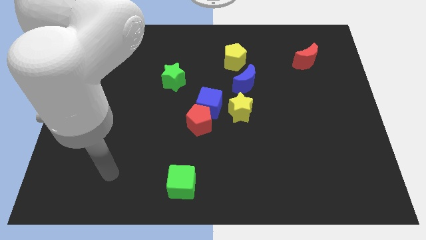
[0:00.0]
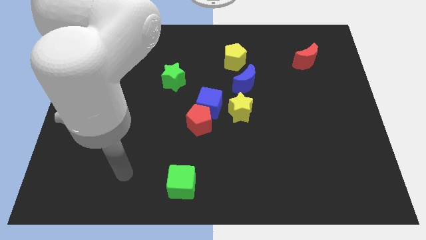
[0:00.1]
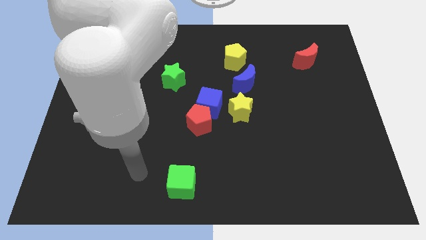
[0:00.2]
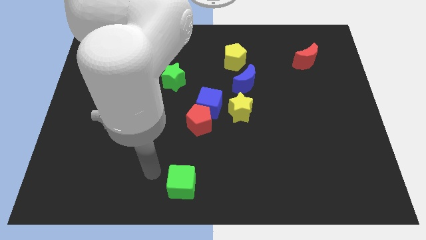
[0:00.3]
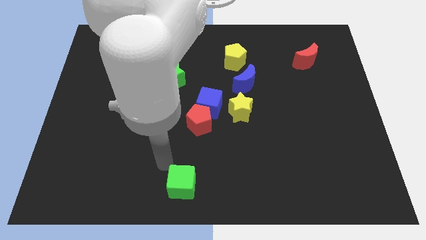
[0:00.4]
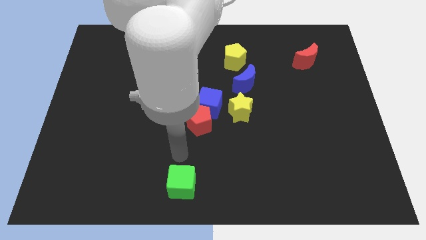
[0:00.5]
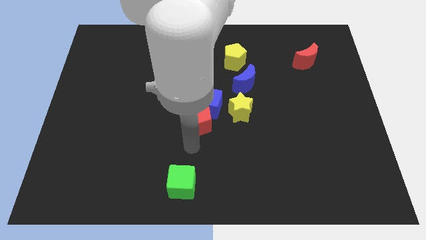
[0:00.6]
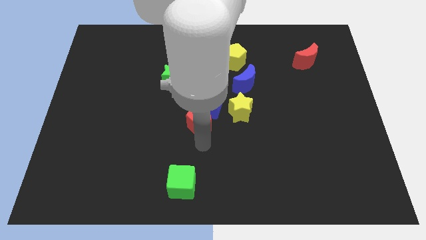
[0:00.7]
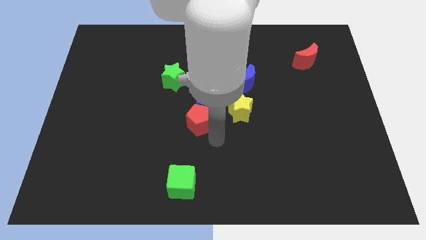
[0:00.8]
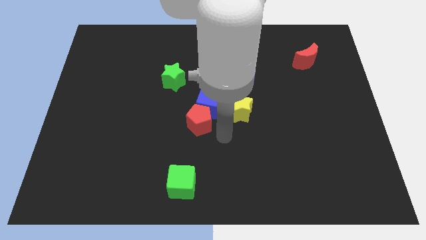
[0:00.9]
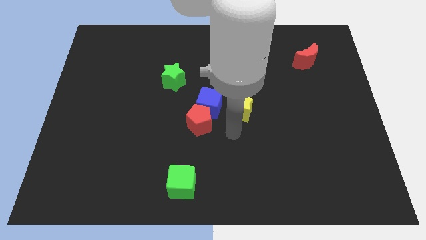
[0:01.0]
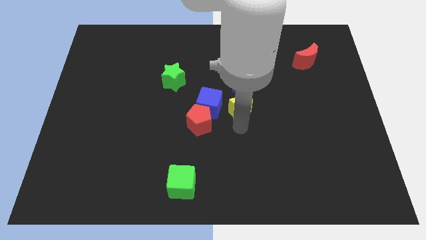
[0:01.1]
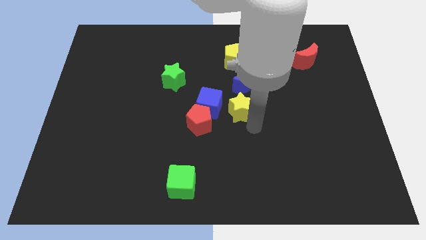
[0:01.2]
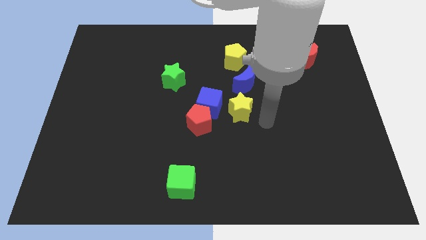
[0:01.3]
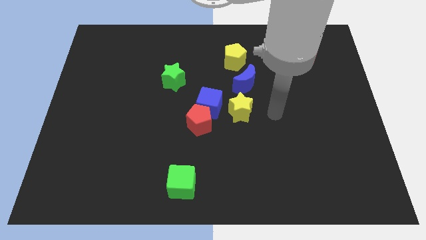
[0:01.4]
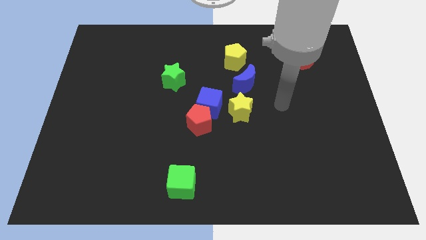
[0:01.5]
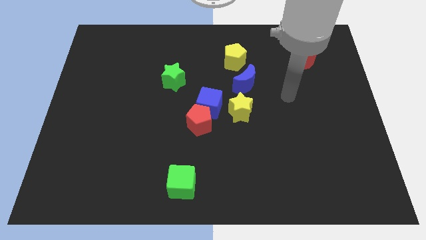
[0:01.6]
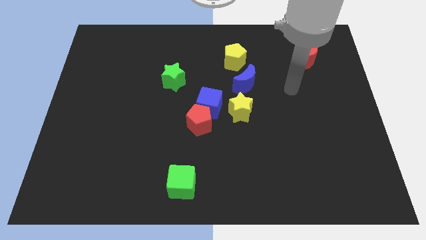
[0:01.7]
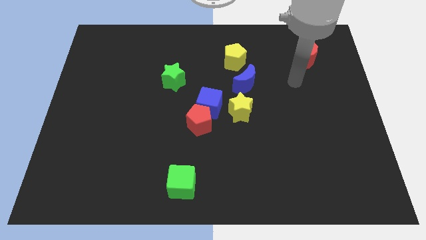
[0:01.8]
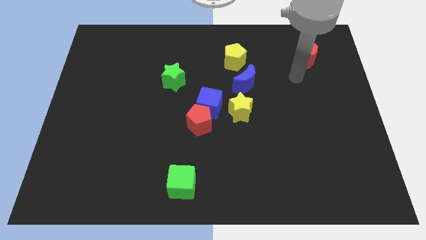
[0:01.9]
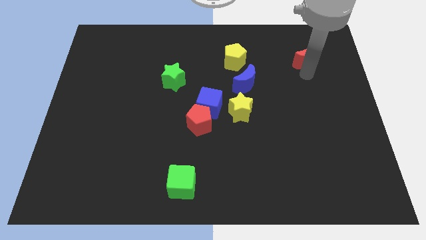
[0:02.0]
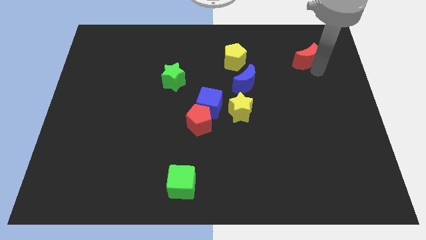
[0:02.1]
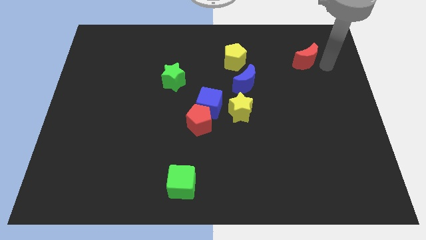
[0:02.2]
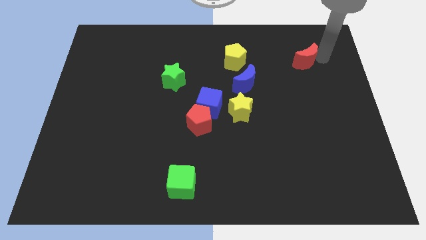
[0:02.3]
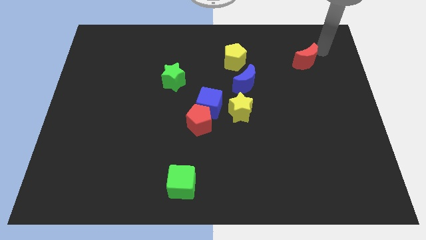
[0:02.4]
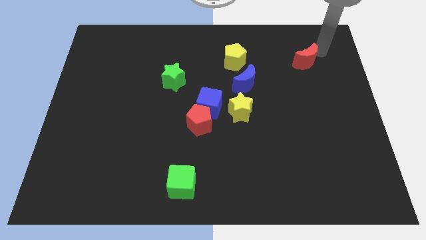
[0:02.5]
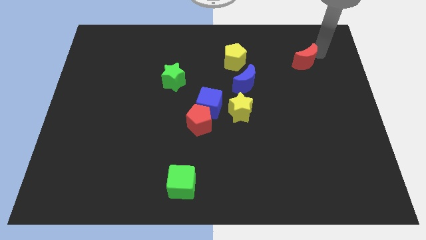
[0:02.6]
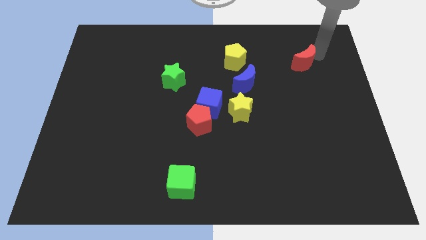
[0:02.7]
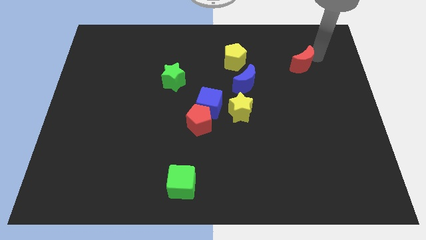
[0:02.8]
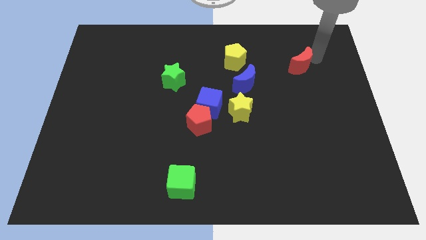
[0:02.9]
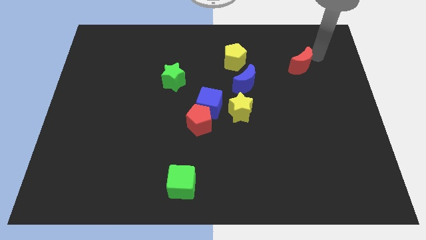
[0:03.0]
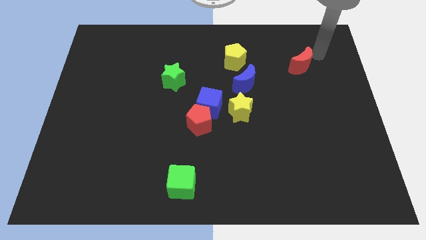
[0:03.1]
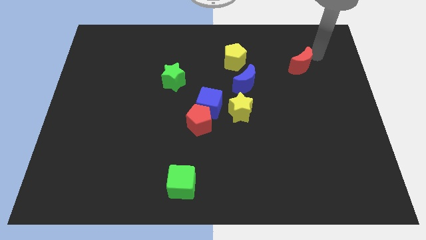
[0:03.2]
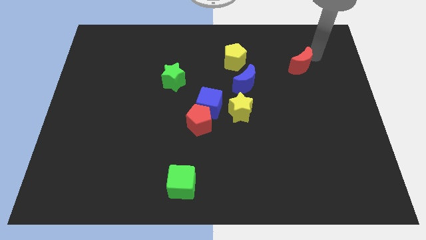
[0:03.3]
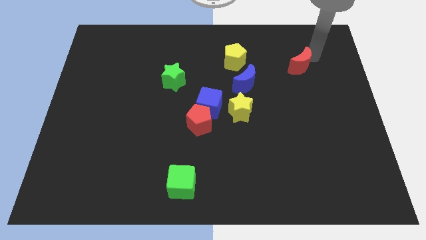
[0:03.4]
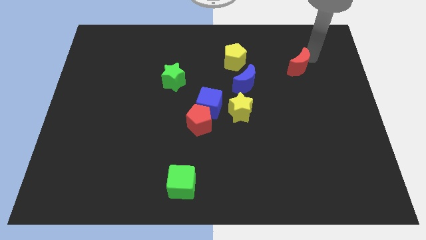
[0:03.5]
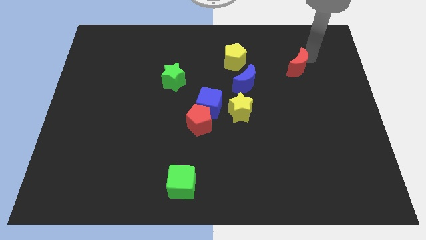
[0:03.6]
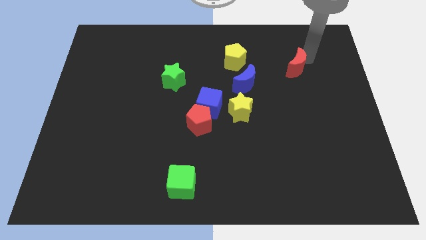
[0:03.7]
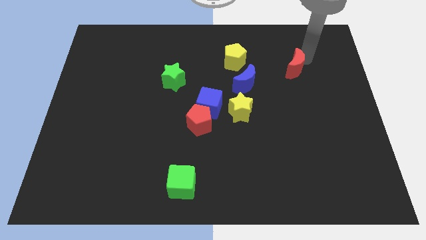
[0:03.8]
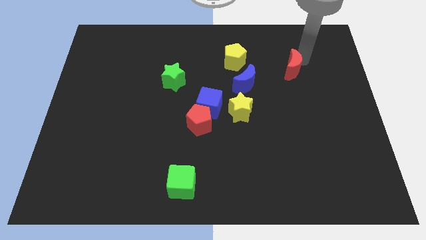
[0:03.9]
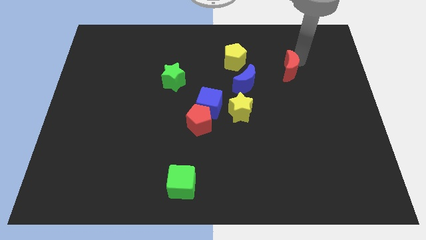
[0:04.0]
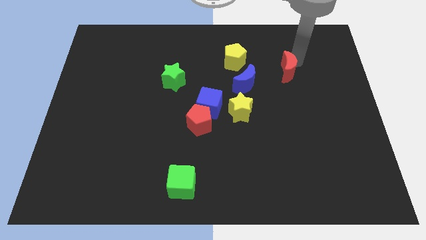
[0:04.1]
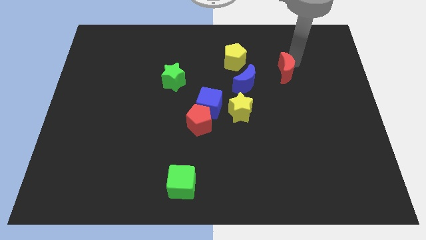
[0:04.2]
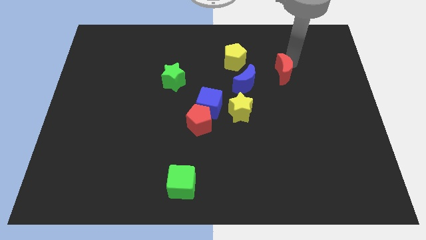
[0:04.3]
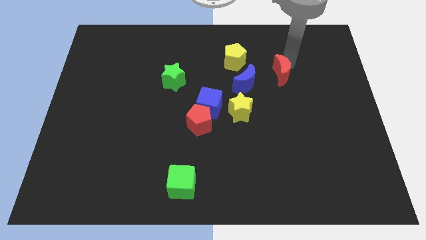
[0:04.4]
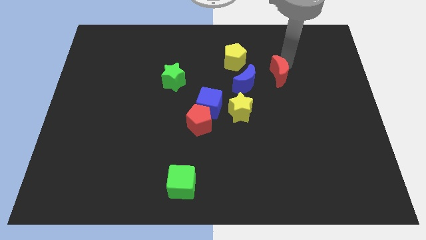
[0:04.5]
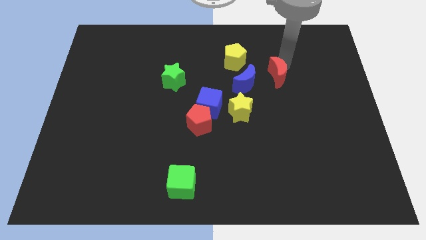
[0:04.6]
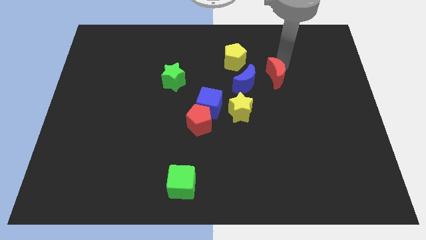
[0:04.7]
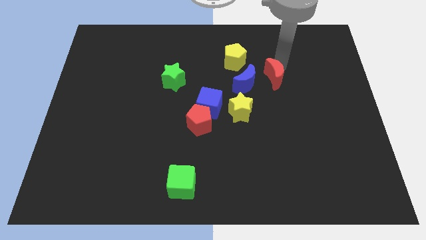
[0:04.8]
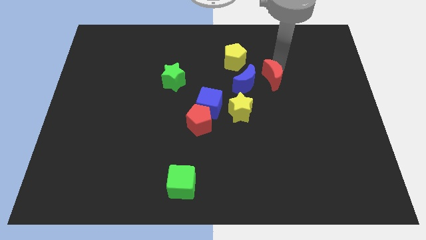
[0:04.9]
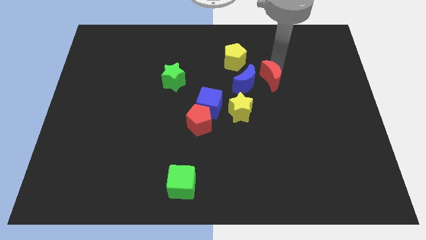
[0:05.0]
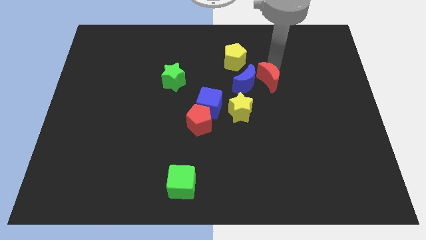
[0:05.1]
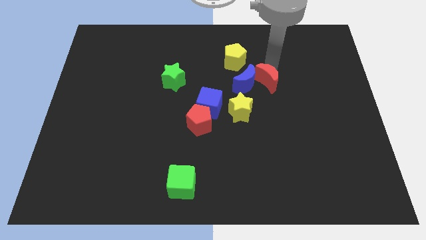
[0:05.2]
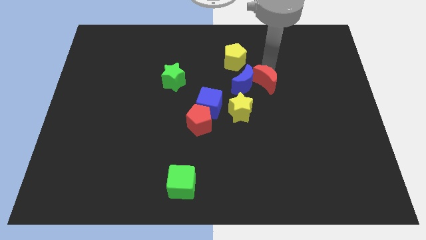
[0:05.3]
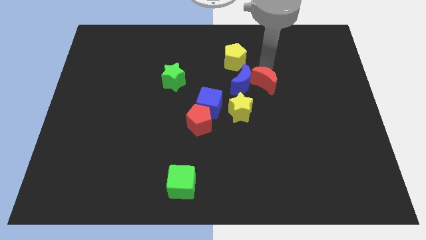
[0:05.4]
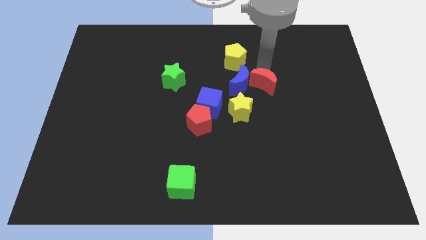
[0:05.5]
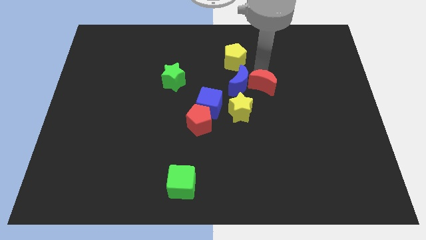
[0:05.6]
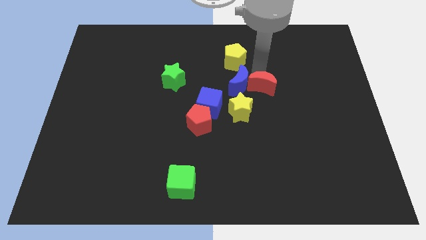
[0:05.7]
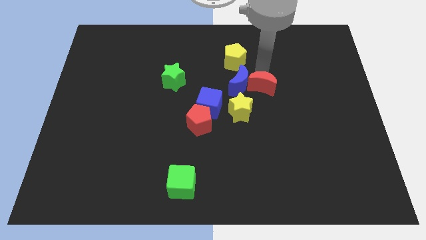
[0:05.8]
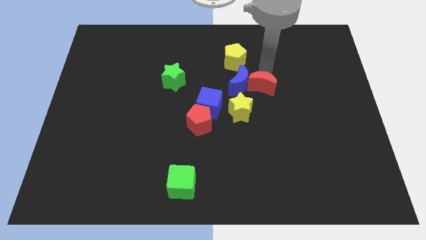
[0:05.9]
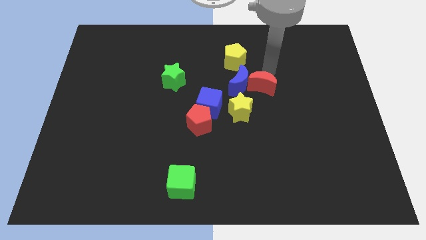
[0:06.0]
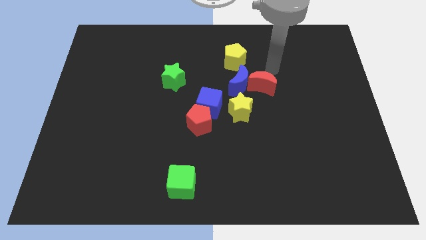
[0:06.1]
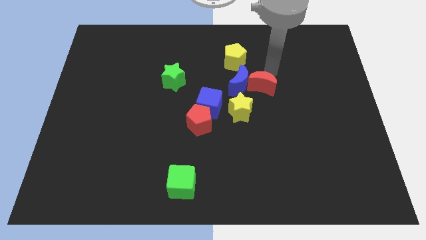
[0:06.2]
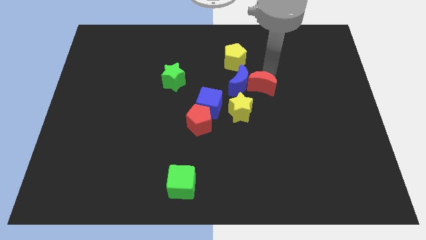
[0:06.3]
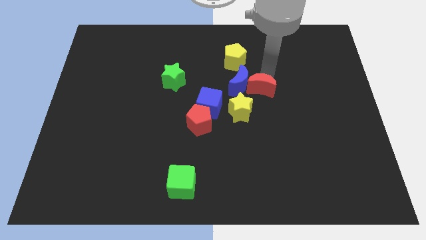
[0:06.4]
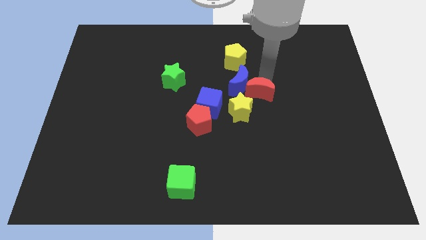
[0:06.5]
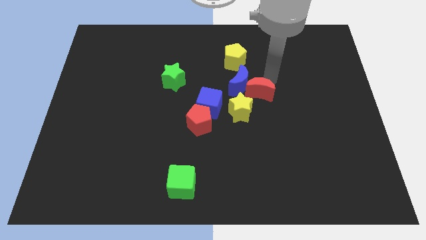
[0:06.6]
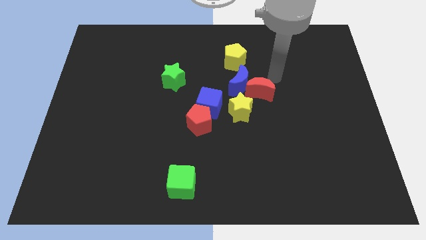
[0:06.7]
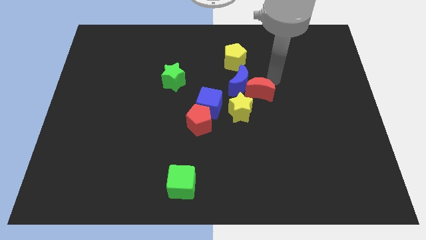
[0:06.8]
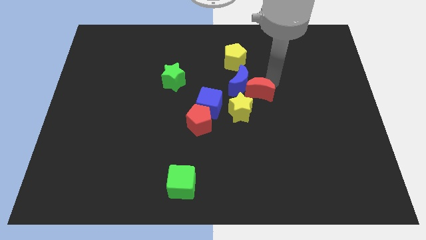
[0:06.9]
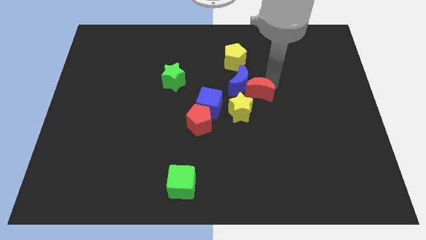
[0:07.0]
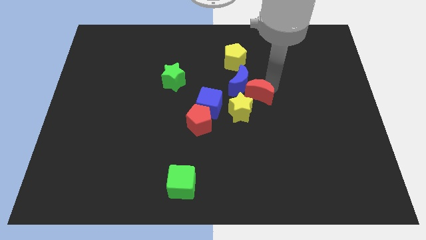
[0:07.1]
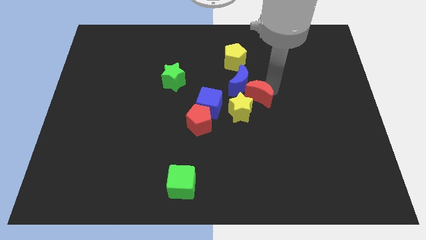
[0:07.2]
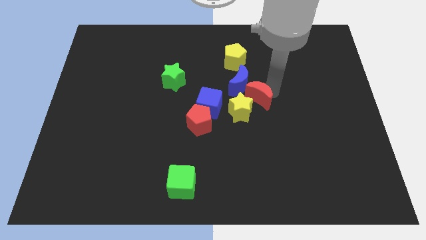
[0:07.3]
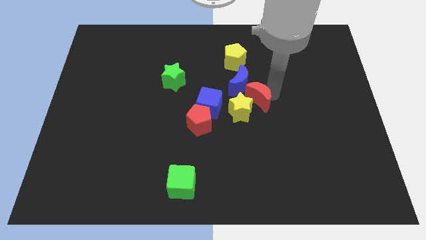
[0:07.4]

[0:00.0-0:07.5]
push the red moon to the yellow star

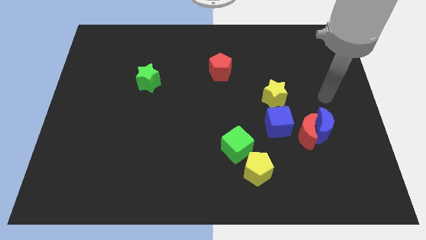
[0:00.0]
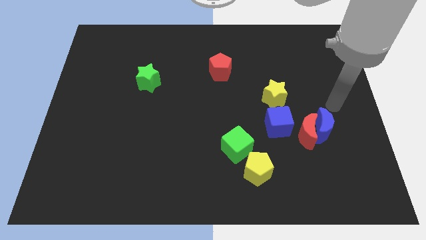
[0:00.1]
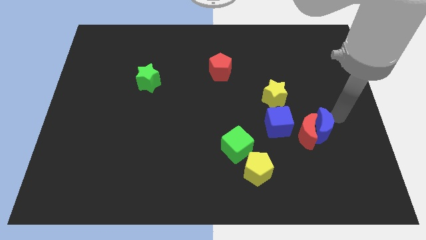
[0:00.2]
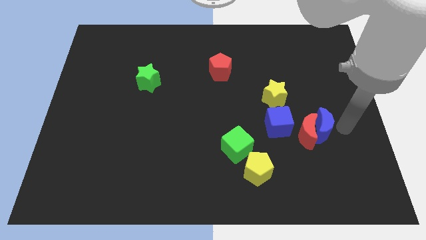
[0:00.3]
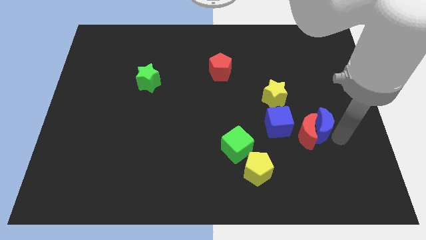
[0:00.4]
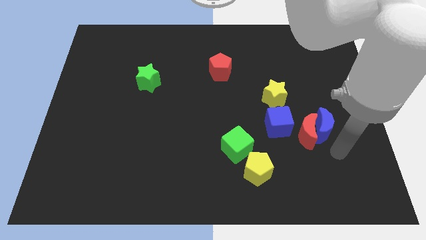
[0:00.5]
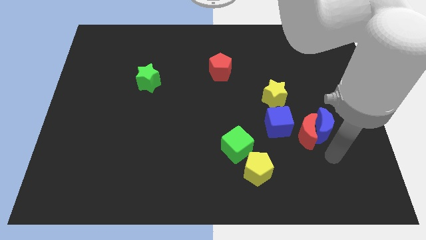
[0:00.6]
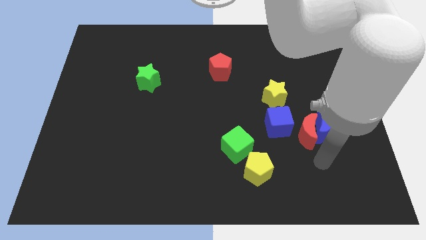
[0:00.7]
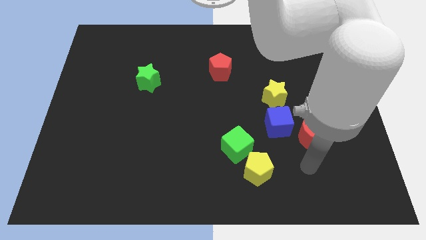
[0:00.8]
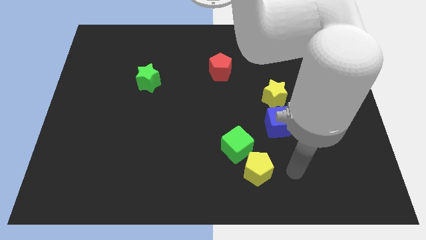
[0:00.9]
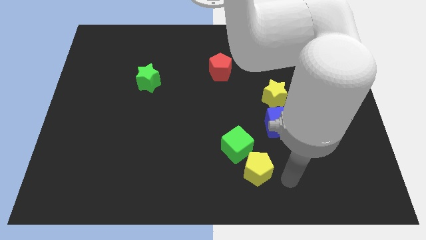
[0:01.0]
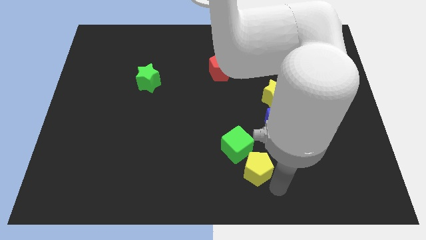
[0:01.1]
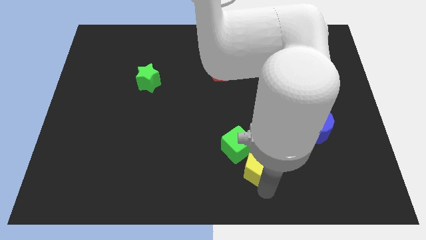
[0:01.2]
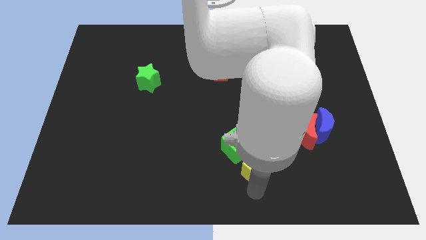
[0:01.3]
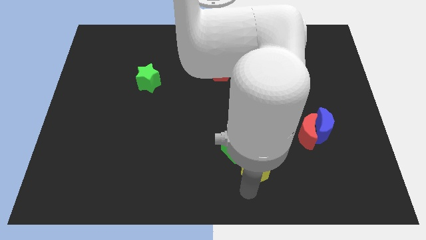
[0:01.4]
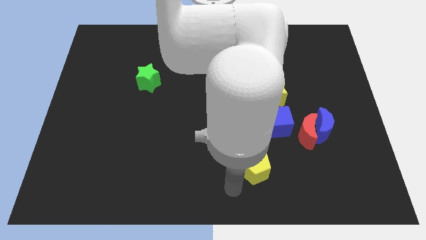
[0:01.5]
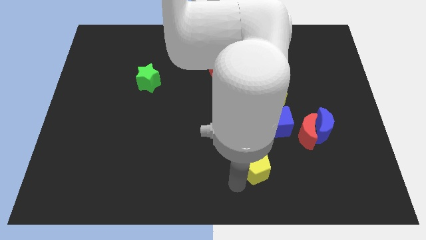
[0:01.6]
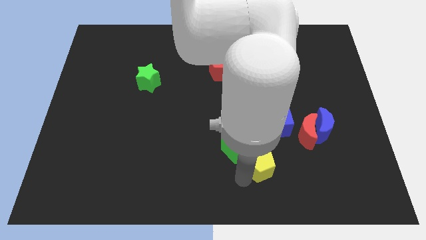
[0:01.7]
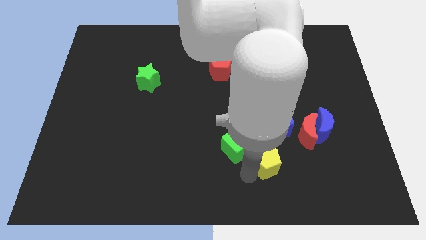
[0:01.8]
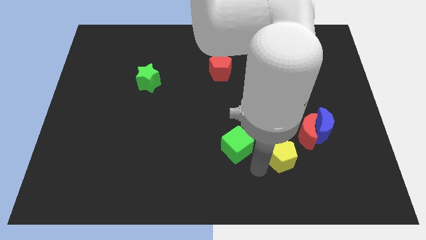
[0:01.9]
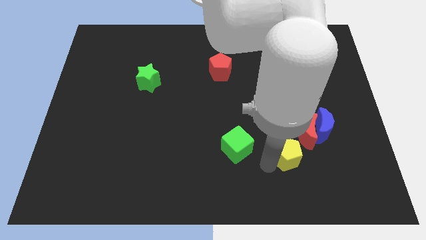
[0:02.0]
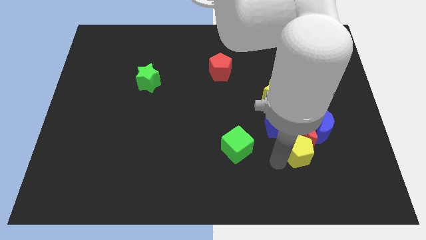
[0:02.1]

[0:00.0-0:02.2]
move the yellow pentagon towards the red moon
